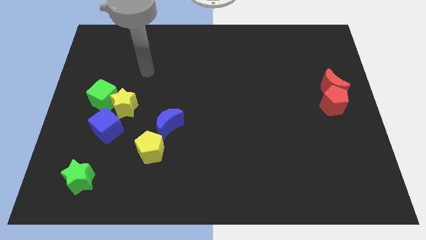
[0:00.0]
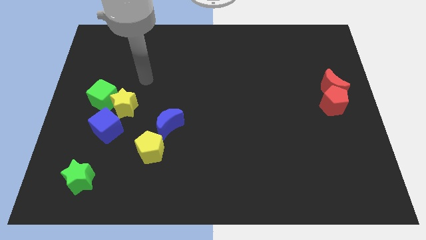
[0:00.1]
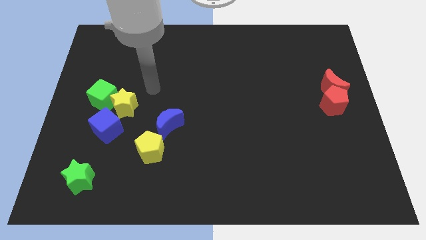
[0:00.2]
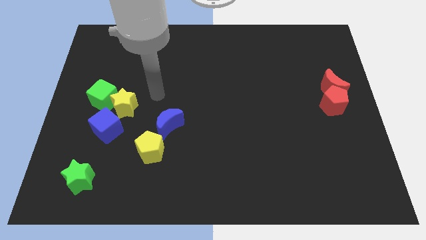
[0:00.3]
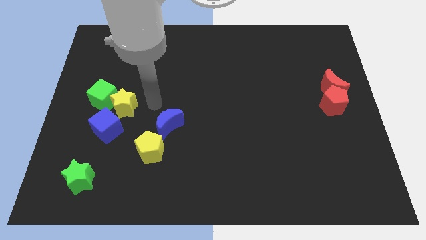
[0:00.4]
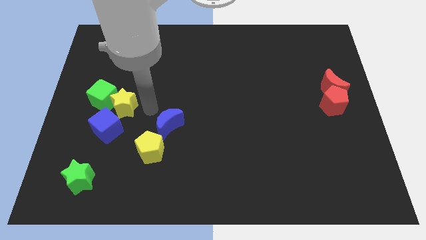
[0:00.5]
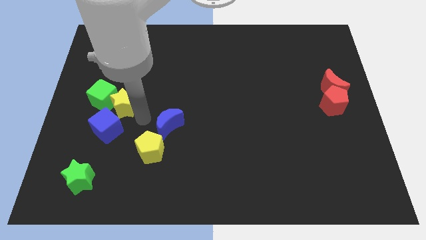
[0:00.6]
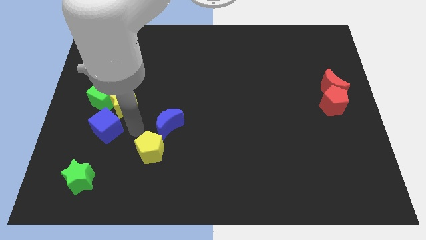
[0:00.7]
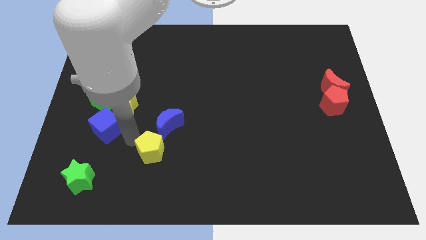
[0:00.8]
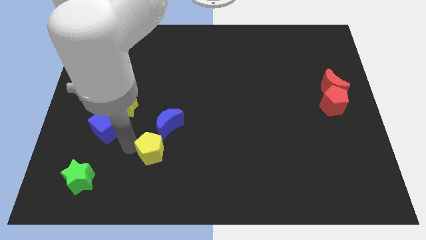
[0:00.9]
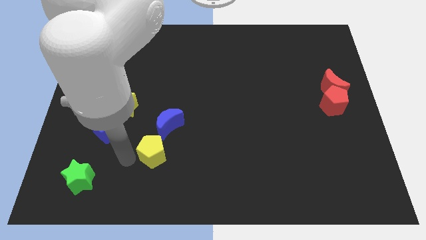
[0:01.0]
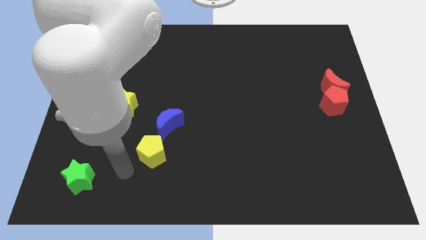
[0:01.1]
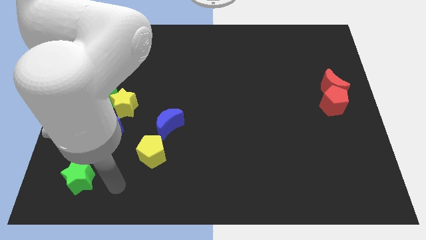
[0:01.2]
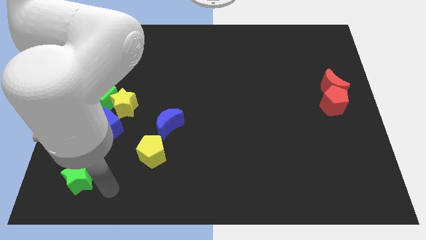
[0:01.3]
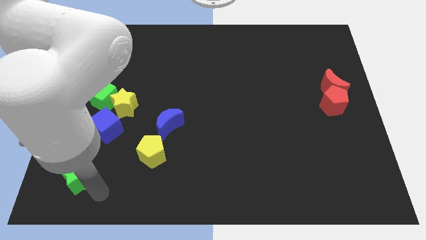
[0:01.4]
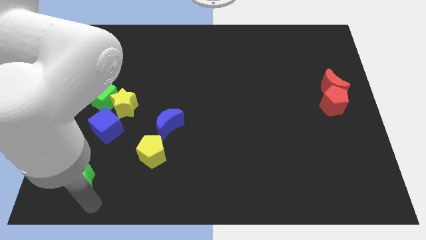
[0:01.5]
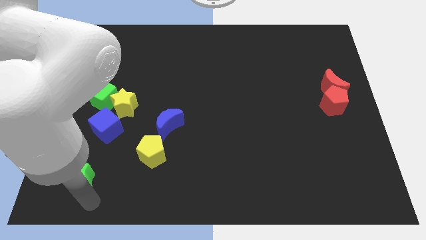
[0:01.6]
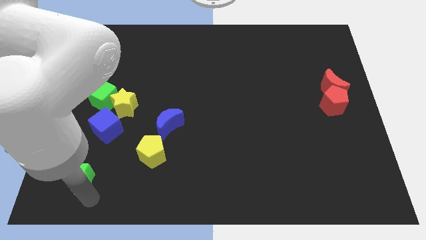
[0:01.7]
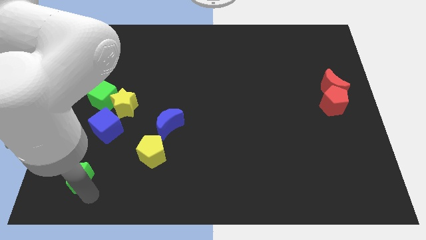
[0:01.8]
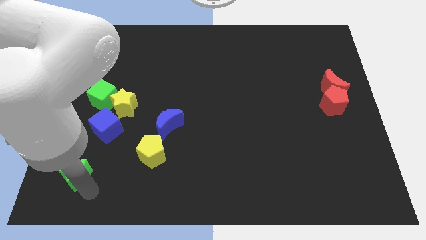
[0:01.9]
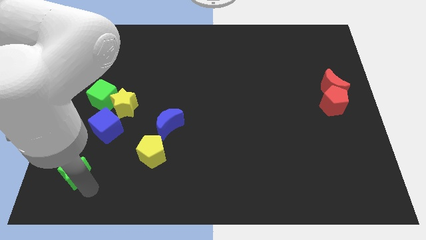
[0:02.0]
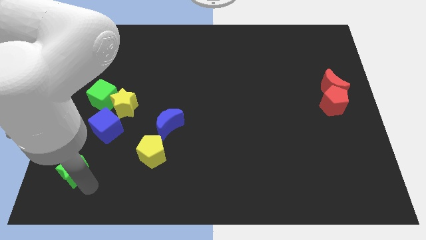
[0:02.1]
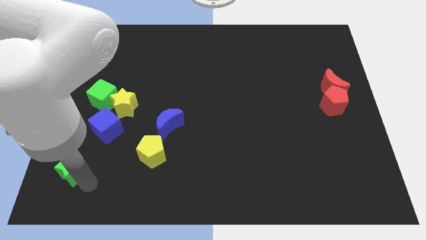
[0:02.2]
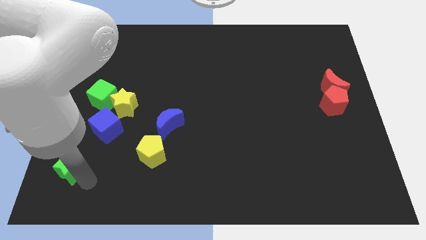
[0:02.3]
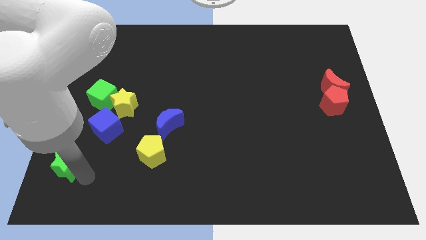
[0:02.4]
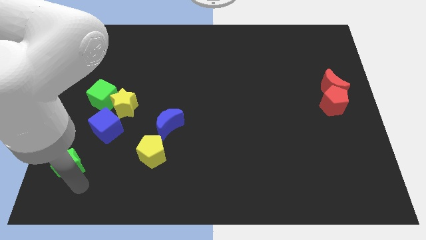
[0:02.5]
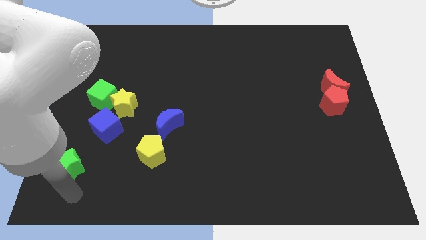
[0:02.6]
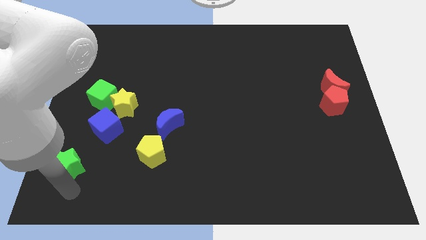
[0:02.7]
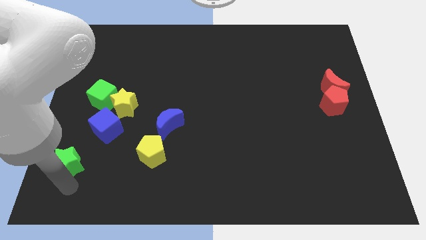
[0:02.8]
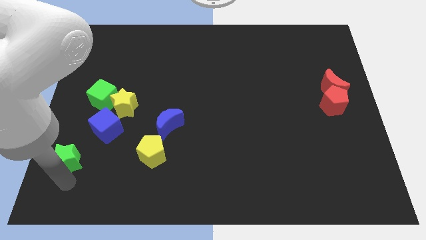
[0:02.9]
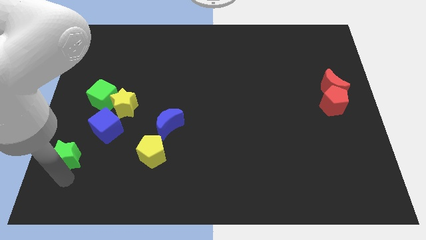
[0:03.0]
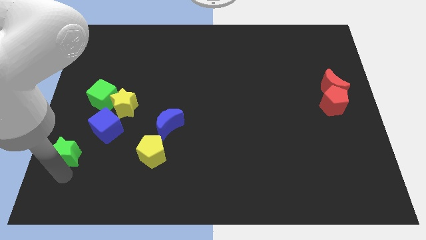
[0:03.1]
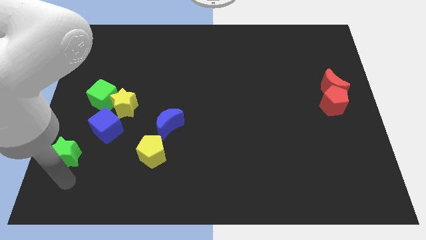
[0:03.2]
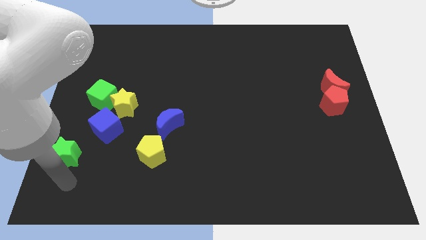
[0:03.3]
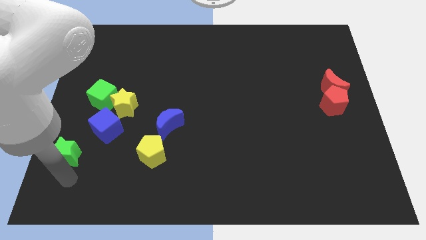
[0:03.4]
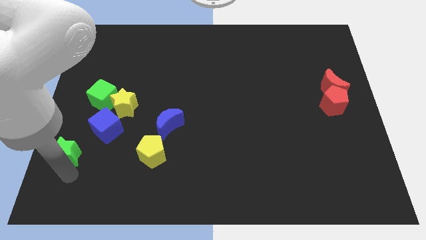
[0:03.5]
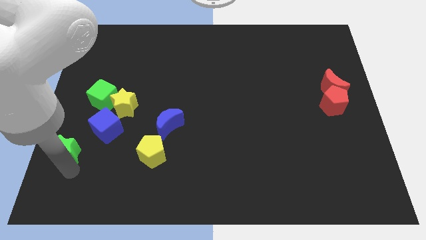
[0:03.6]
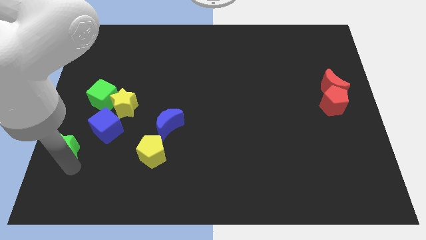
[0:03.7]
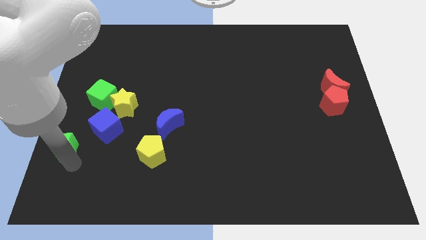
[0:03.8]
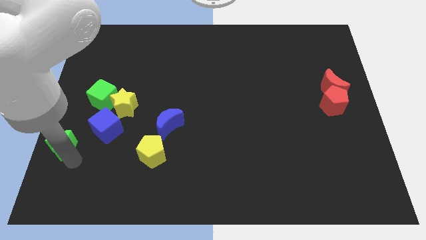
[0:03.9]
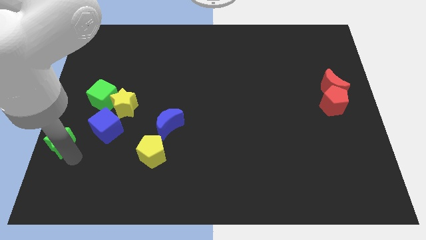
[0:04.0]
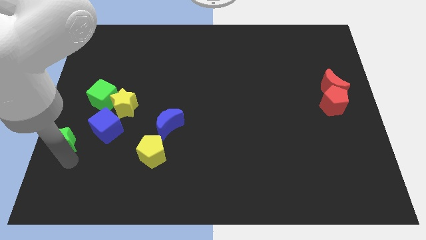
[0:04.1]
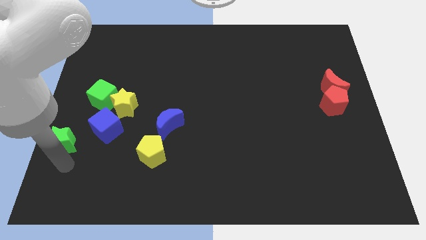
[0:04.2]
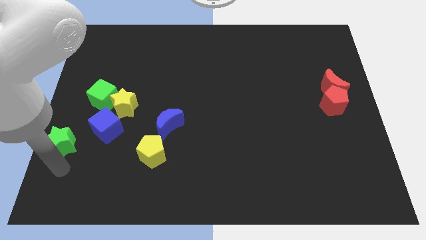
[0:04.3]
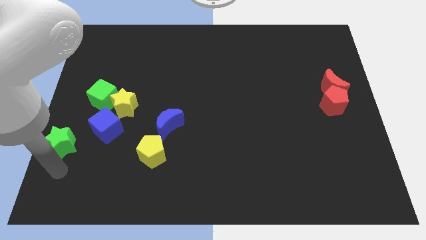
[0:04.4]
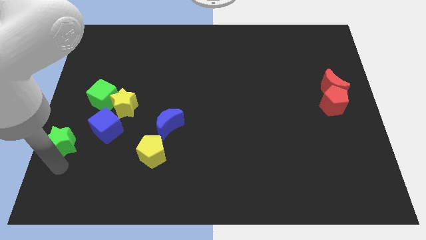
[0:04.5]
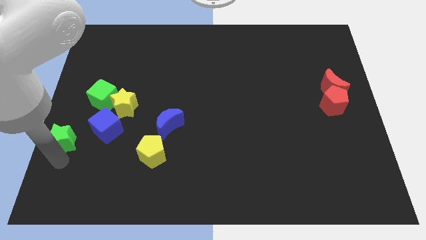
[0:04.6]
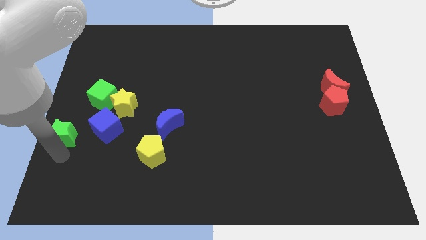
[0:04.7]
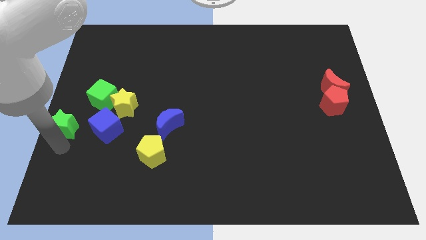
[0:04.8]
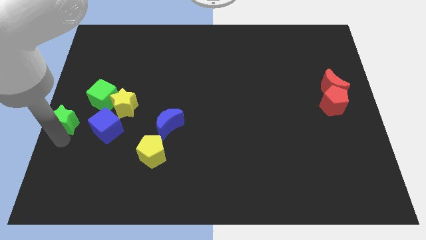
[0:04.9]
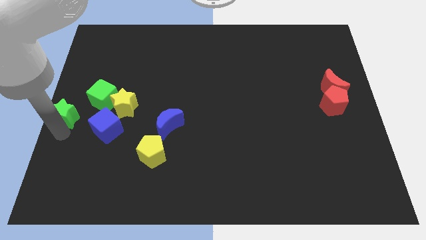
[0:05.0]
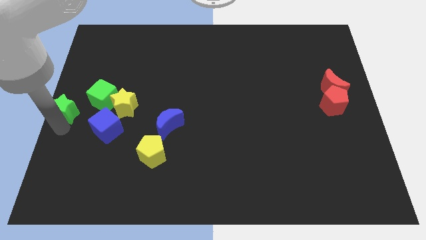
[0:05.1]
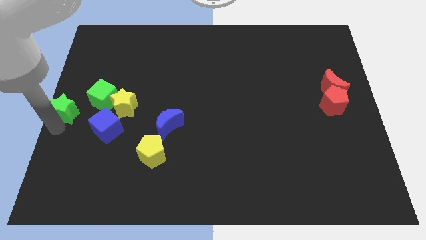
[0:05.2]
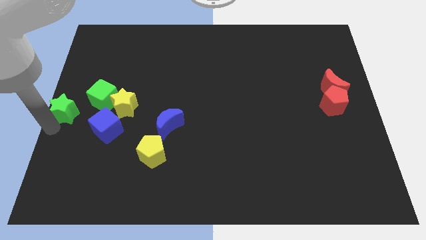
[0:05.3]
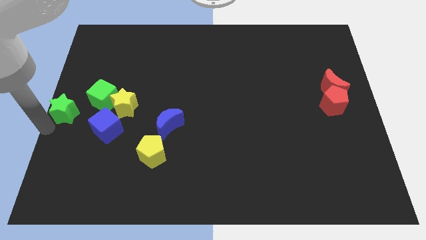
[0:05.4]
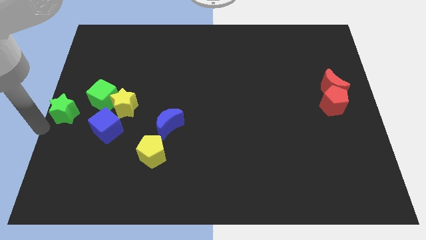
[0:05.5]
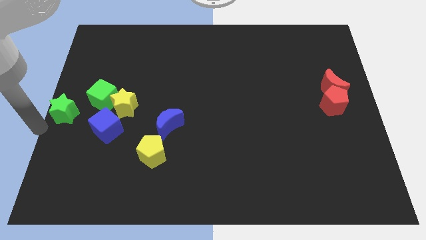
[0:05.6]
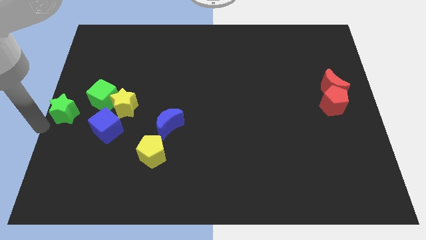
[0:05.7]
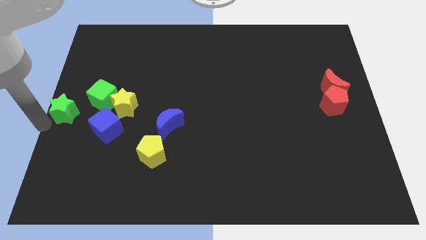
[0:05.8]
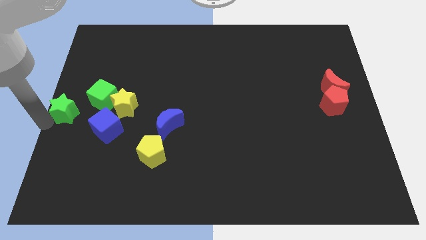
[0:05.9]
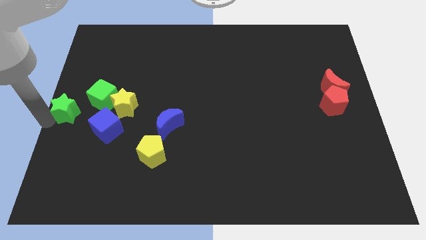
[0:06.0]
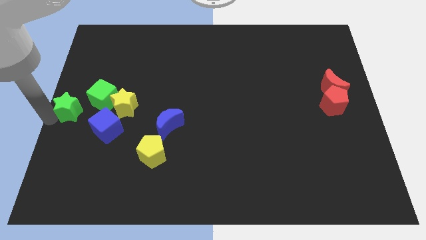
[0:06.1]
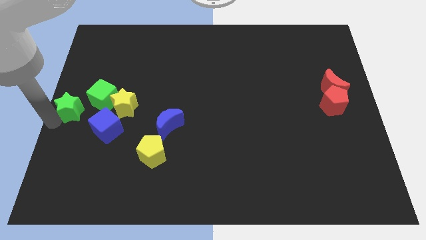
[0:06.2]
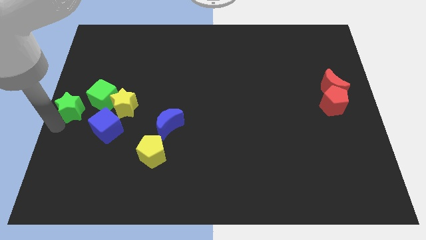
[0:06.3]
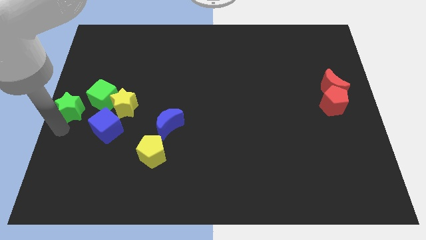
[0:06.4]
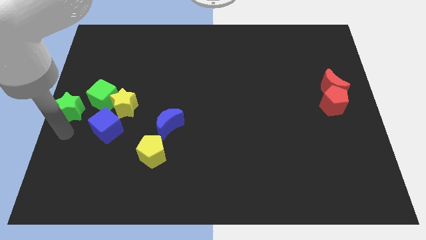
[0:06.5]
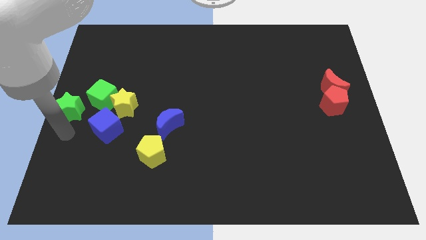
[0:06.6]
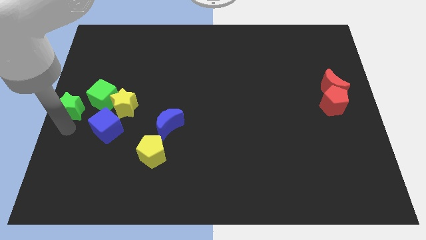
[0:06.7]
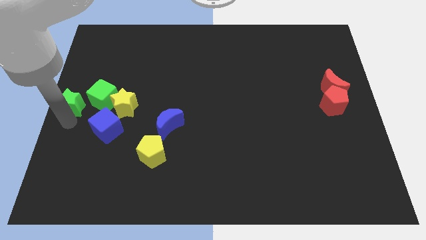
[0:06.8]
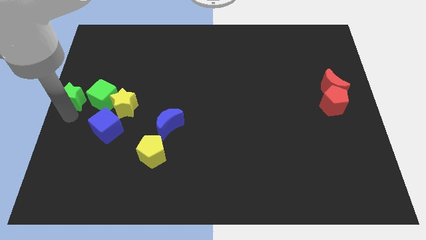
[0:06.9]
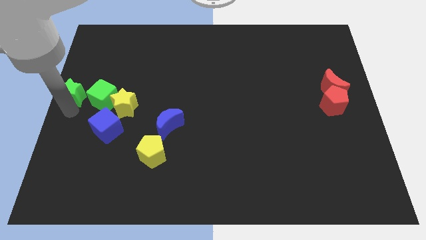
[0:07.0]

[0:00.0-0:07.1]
move the green star upwards

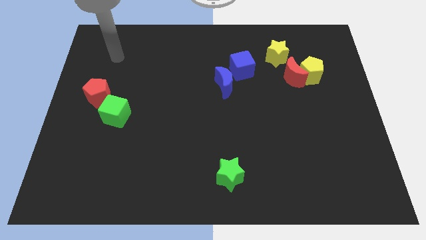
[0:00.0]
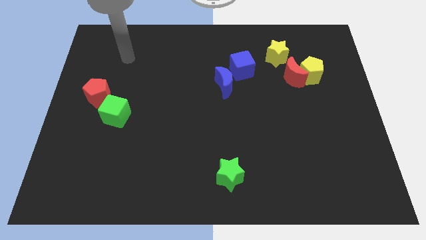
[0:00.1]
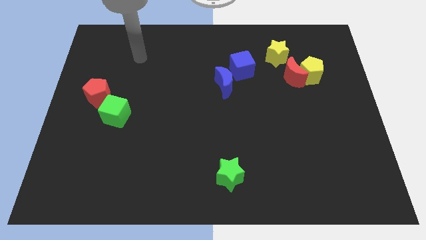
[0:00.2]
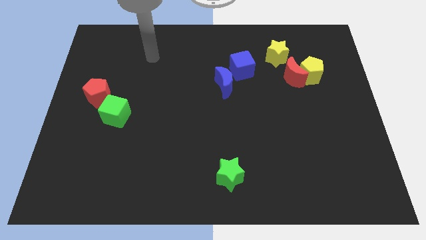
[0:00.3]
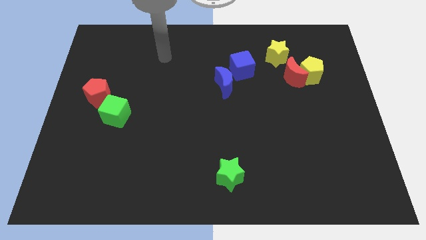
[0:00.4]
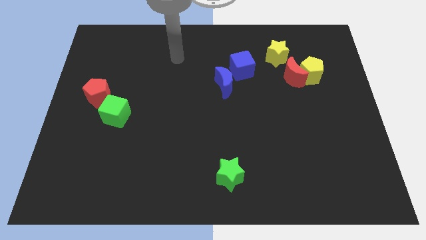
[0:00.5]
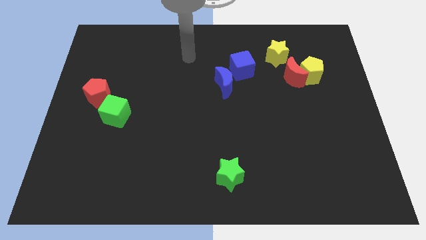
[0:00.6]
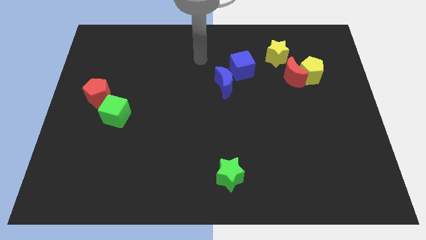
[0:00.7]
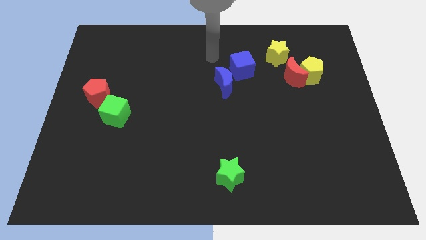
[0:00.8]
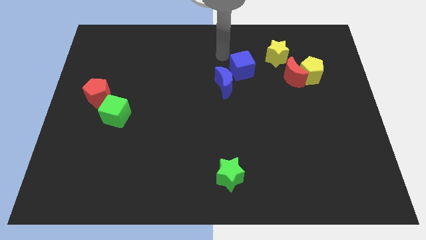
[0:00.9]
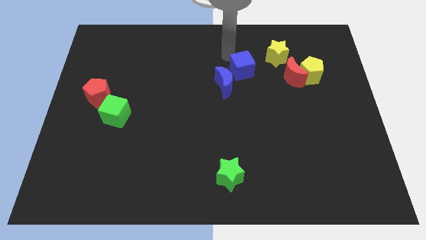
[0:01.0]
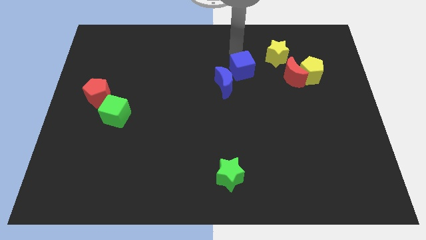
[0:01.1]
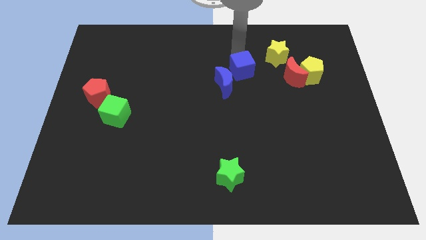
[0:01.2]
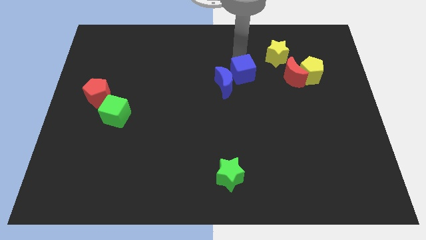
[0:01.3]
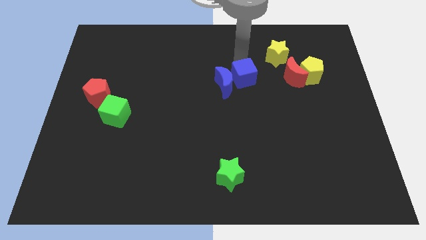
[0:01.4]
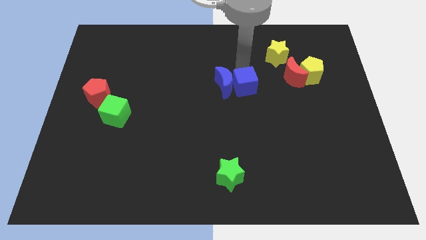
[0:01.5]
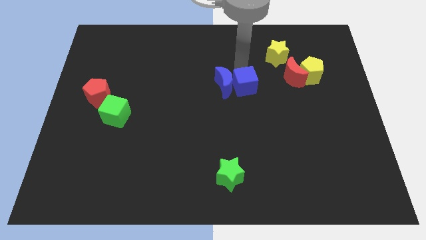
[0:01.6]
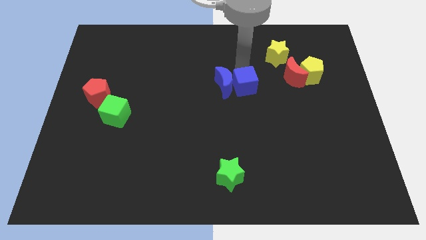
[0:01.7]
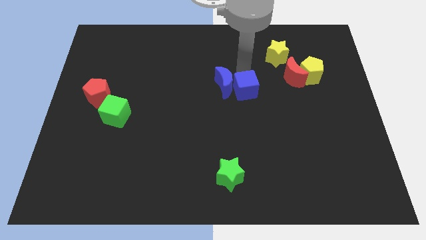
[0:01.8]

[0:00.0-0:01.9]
push the blue cube downwards a bit
